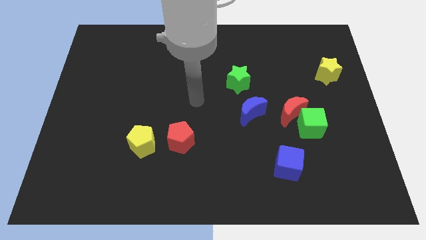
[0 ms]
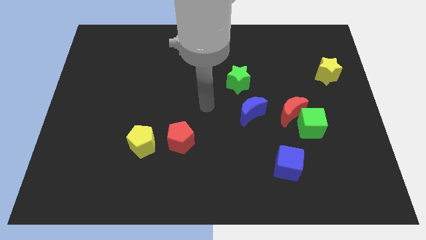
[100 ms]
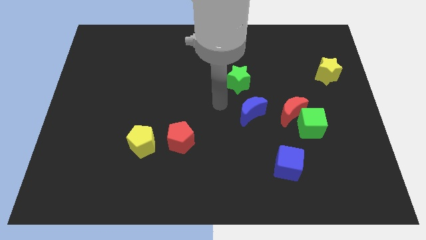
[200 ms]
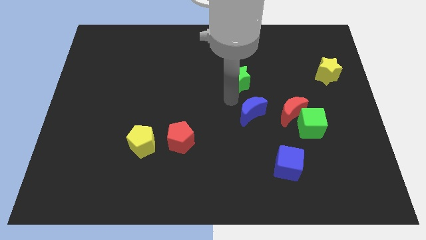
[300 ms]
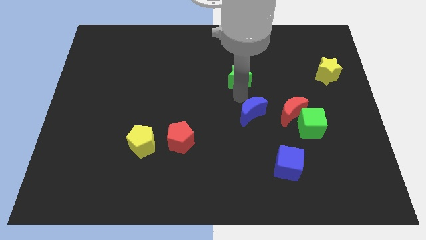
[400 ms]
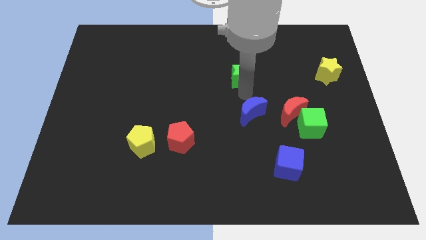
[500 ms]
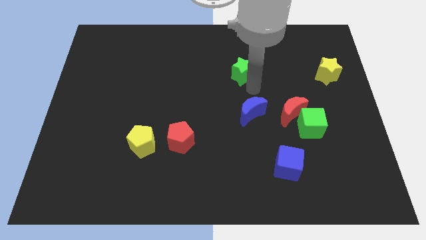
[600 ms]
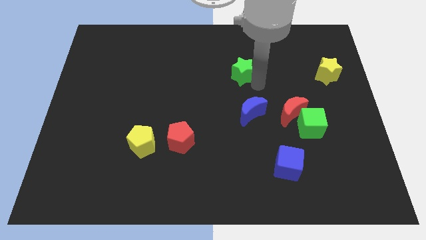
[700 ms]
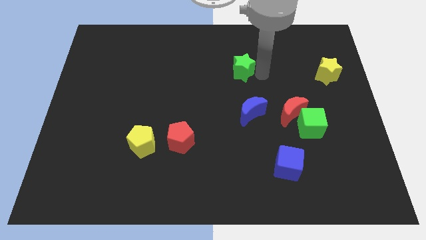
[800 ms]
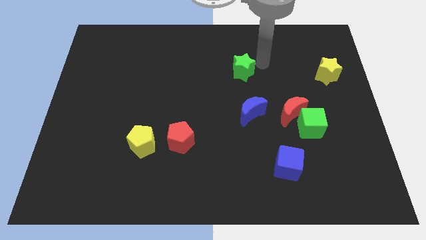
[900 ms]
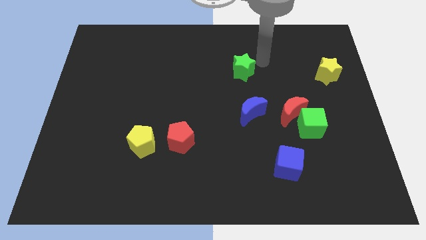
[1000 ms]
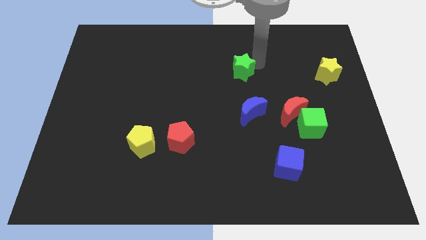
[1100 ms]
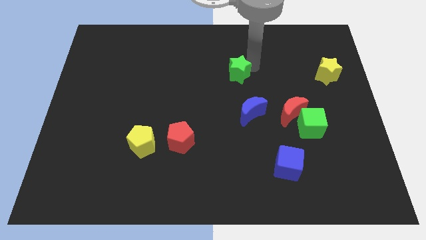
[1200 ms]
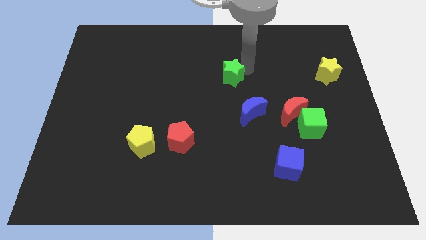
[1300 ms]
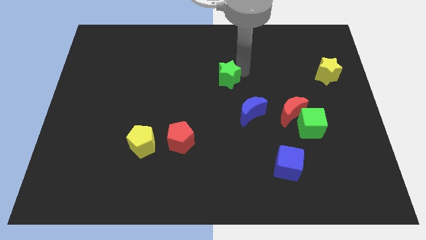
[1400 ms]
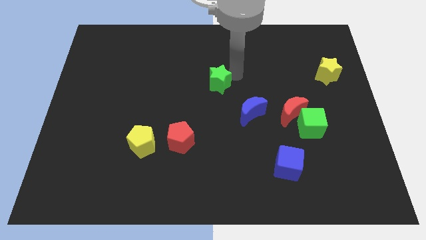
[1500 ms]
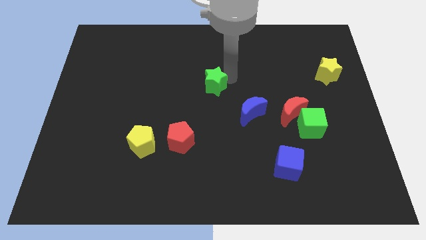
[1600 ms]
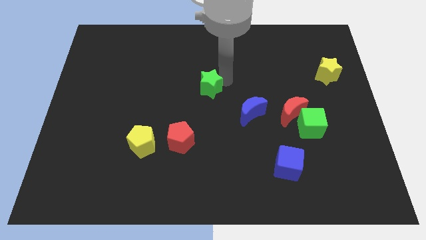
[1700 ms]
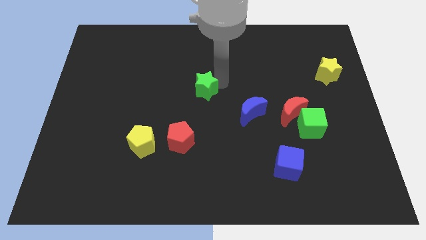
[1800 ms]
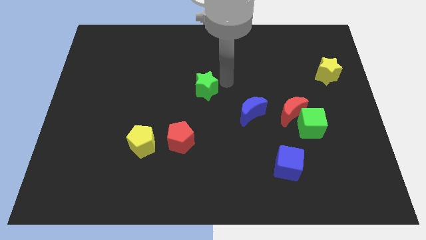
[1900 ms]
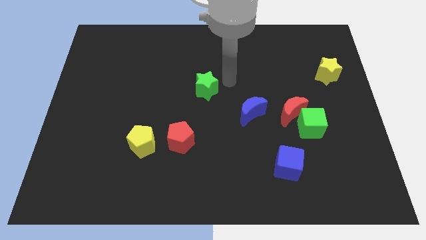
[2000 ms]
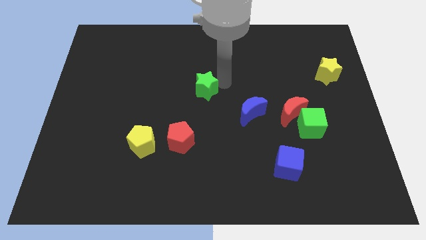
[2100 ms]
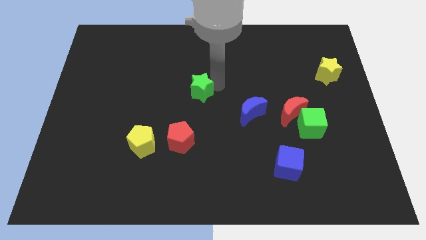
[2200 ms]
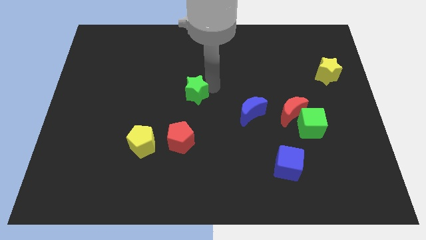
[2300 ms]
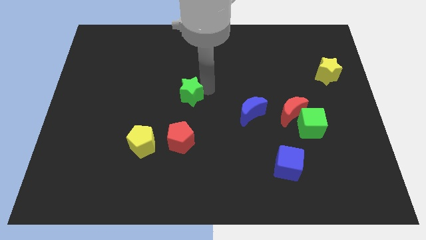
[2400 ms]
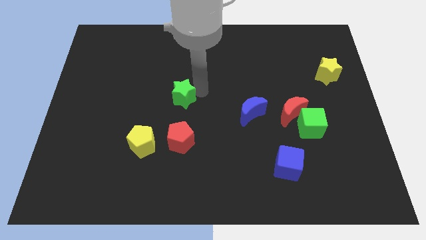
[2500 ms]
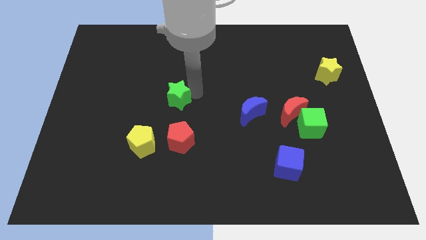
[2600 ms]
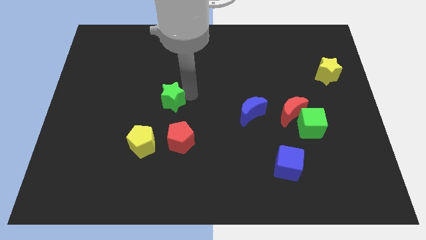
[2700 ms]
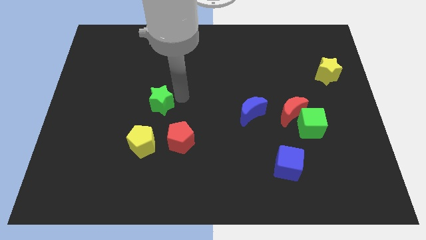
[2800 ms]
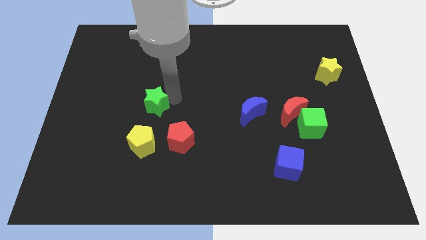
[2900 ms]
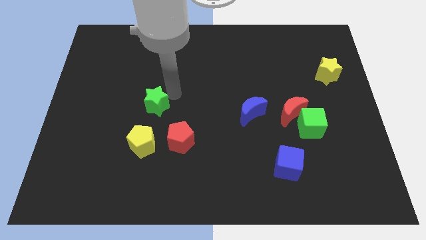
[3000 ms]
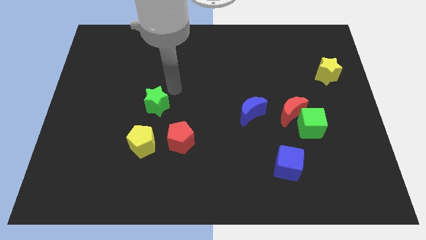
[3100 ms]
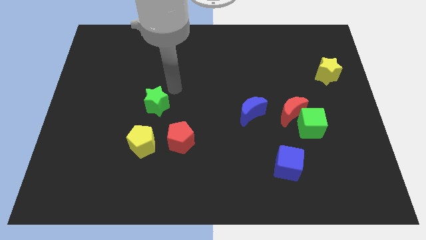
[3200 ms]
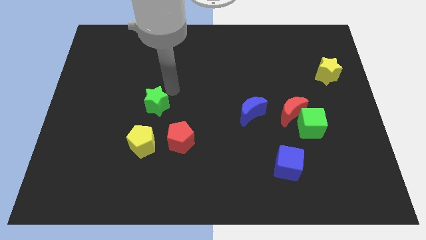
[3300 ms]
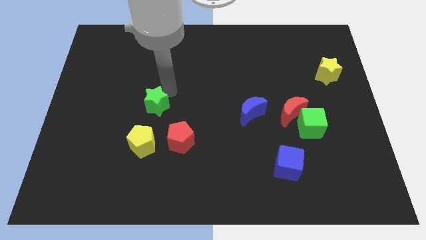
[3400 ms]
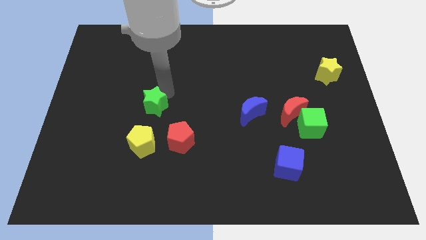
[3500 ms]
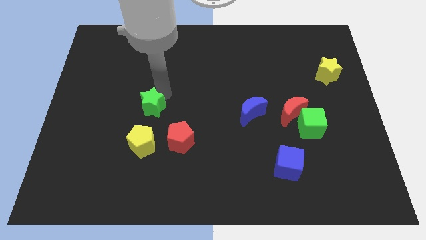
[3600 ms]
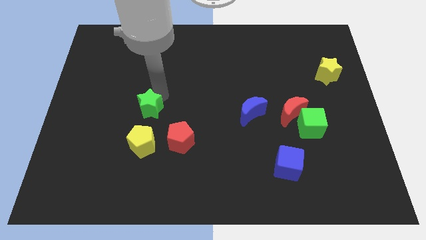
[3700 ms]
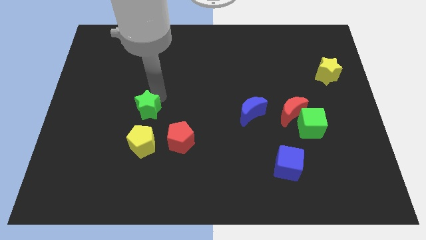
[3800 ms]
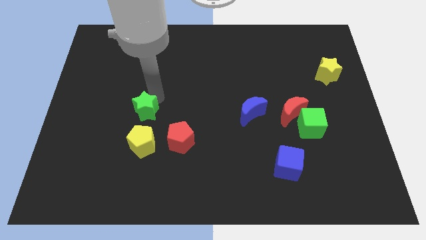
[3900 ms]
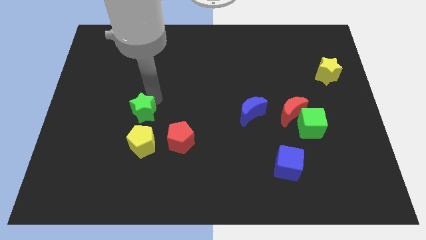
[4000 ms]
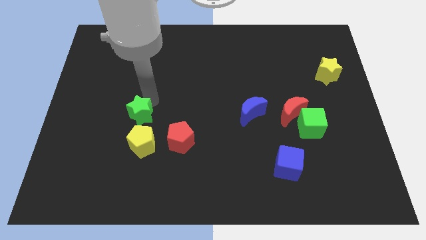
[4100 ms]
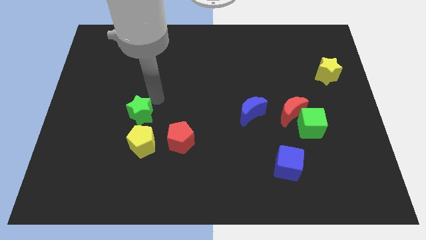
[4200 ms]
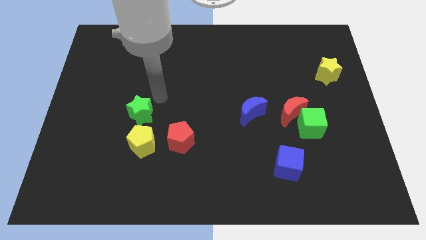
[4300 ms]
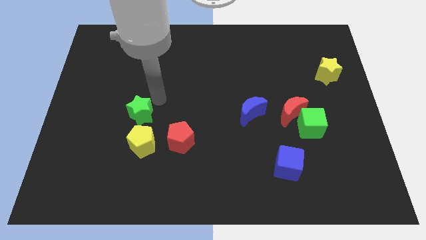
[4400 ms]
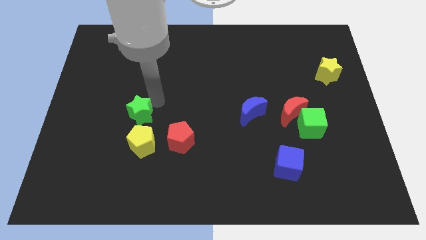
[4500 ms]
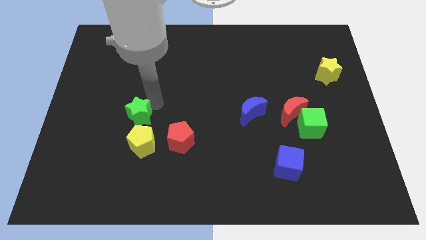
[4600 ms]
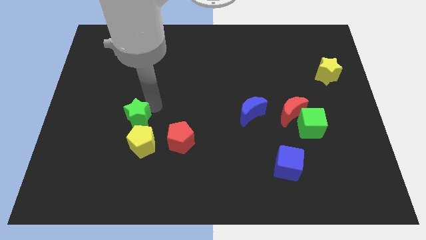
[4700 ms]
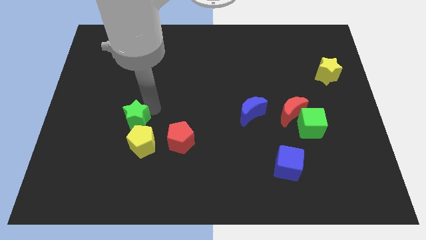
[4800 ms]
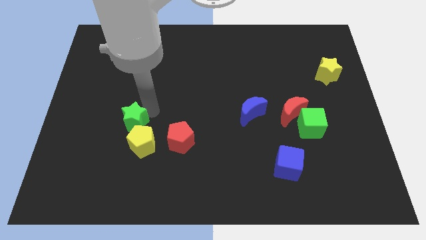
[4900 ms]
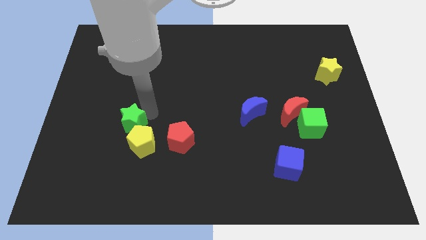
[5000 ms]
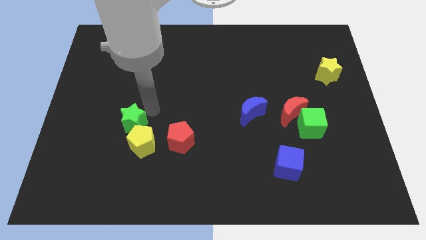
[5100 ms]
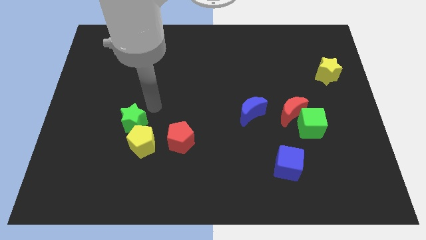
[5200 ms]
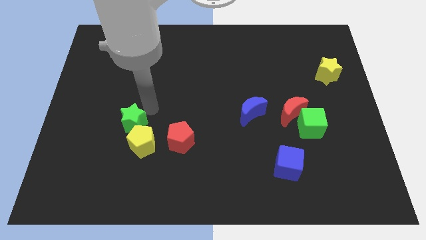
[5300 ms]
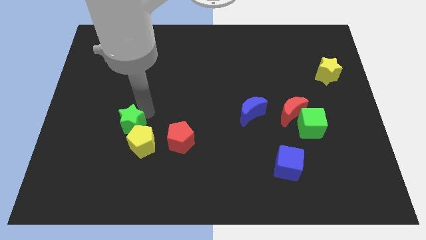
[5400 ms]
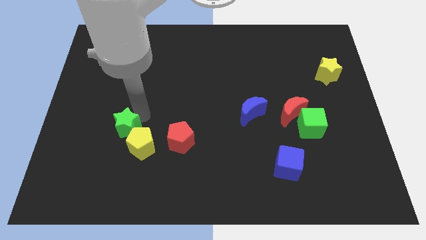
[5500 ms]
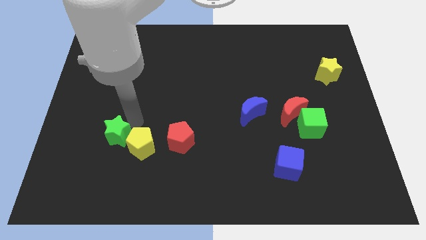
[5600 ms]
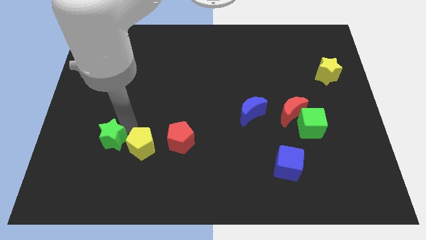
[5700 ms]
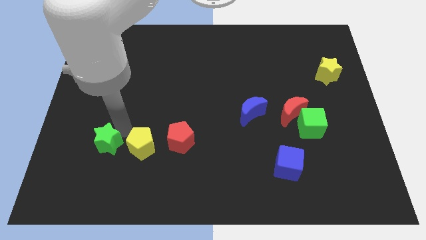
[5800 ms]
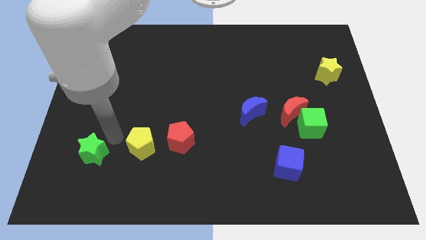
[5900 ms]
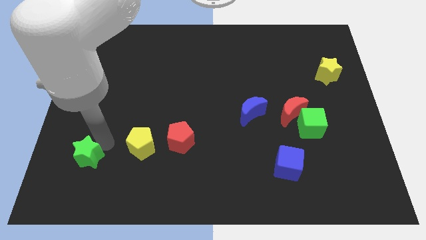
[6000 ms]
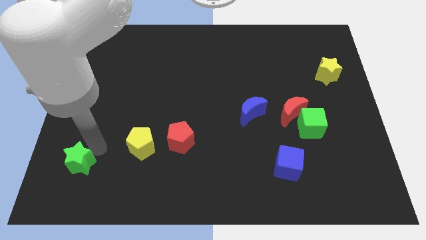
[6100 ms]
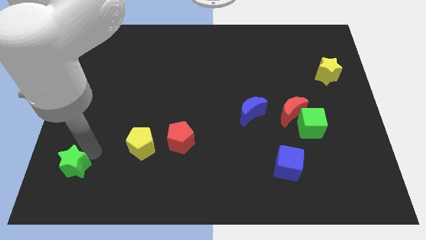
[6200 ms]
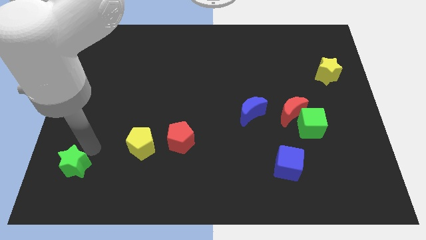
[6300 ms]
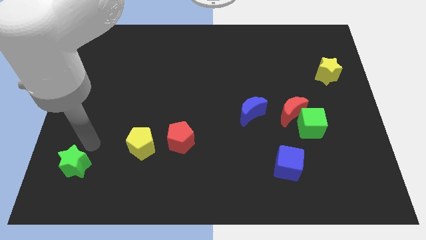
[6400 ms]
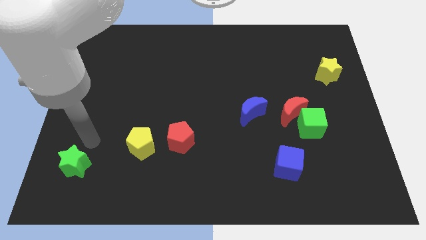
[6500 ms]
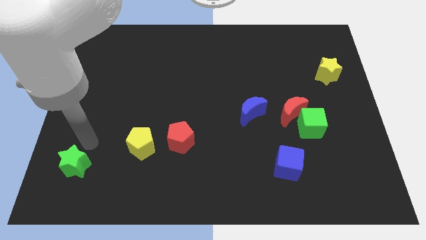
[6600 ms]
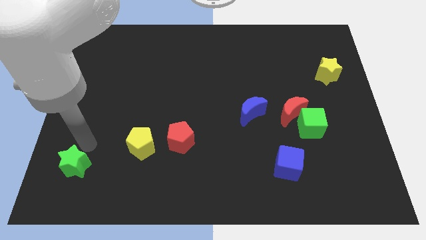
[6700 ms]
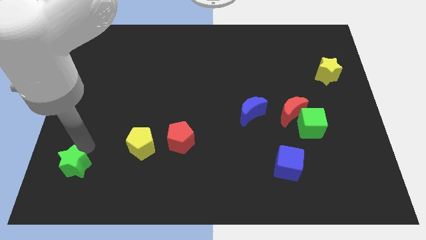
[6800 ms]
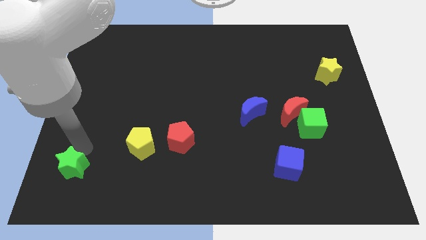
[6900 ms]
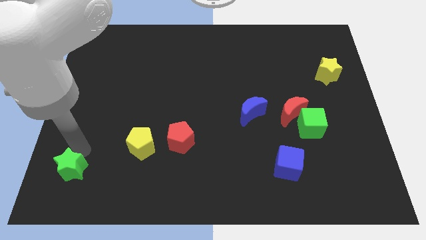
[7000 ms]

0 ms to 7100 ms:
move the green star to the bottom left of the board

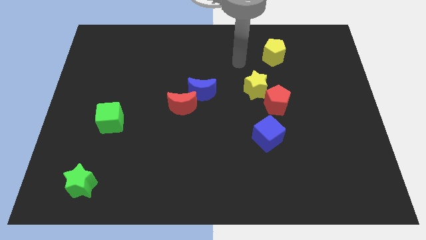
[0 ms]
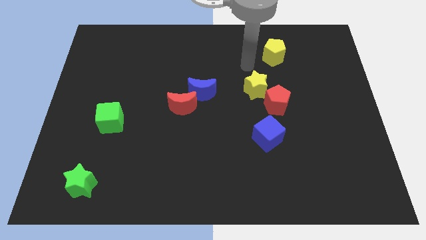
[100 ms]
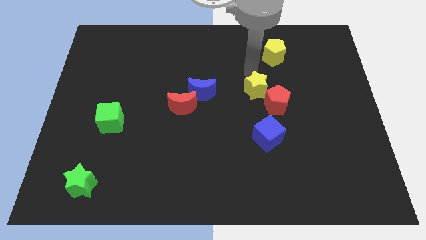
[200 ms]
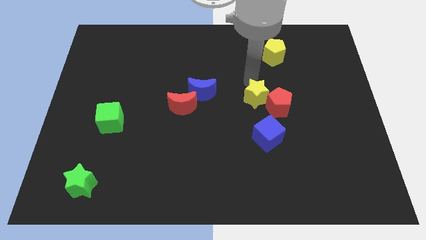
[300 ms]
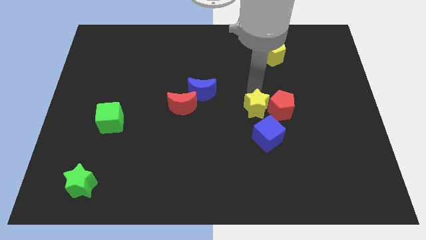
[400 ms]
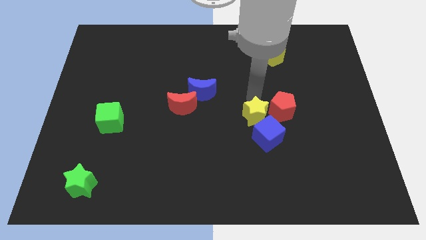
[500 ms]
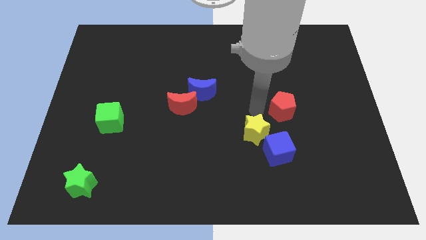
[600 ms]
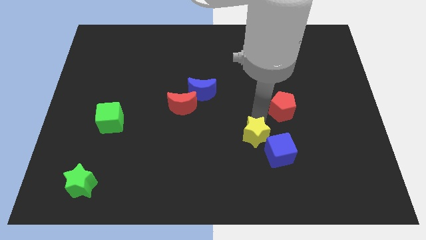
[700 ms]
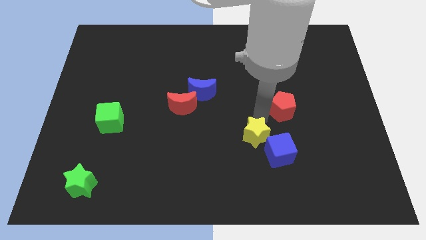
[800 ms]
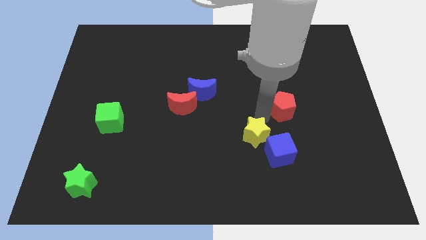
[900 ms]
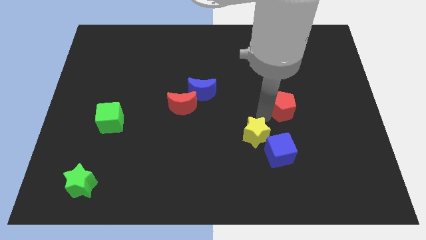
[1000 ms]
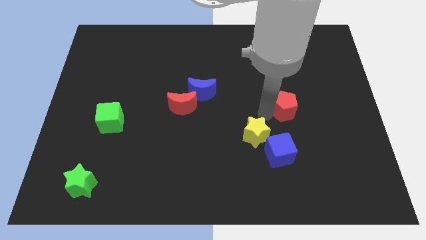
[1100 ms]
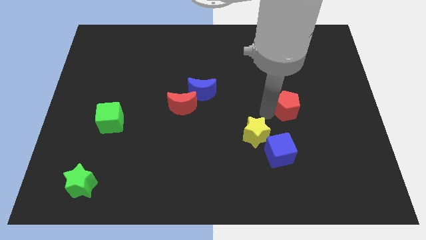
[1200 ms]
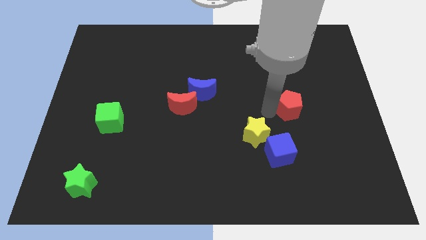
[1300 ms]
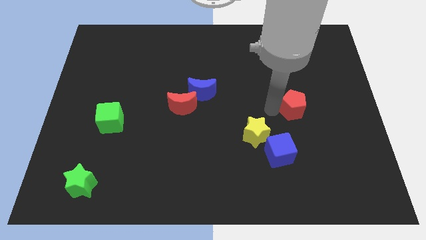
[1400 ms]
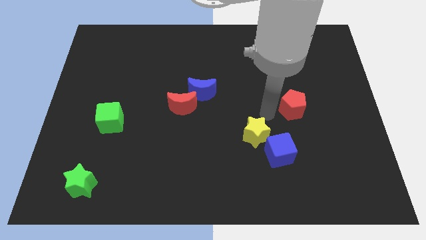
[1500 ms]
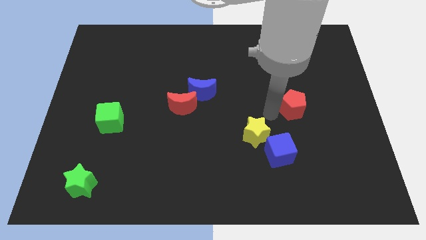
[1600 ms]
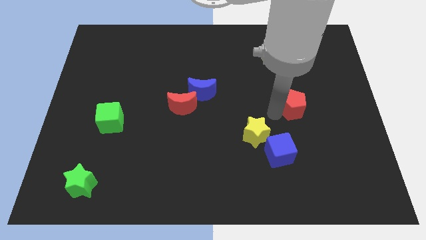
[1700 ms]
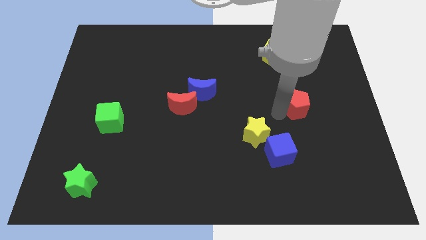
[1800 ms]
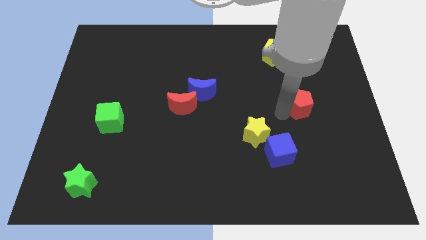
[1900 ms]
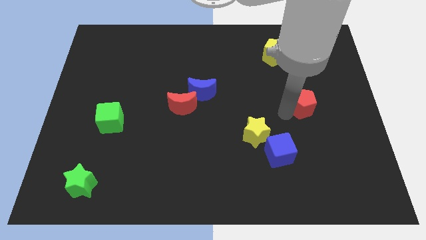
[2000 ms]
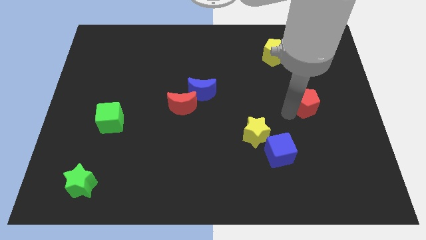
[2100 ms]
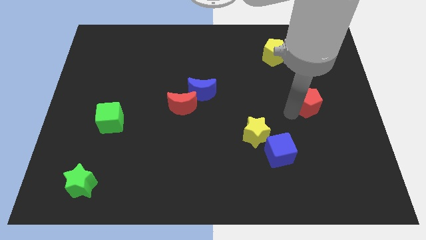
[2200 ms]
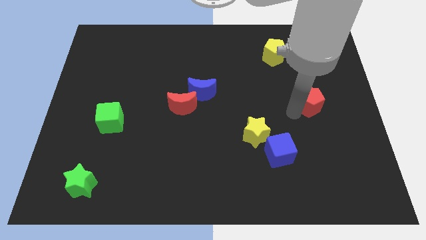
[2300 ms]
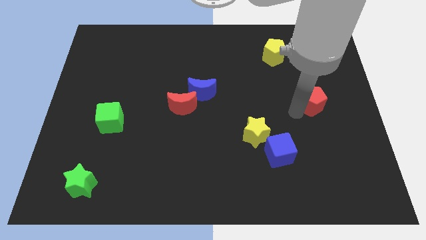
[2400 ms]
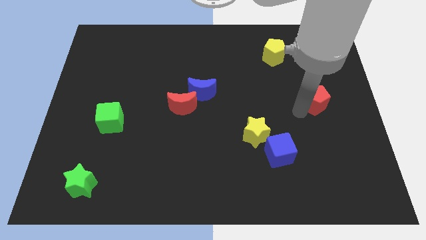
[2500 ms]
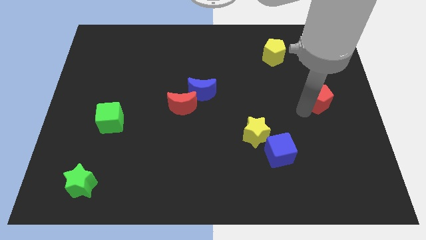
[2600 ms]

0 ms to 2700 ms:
put the red pentagon to the right side of the board
